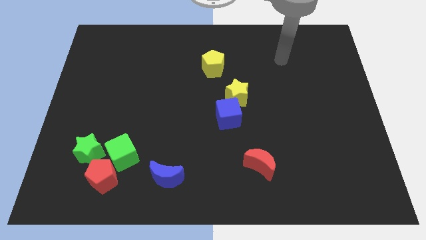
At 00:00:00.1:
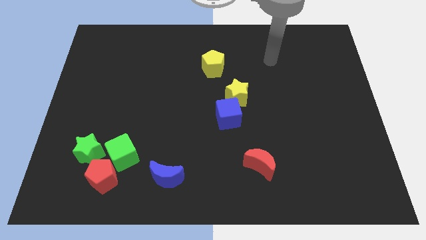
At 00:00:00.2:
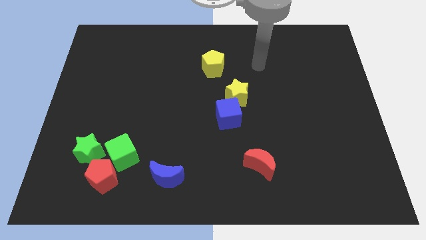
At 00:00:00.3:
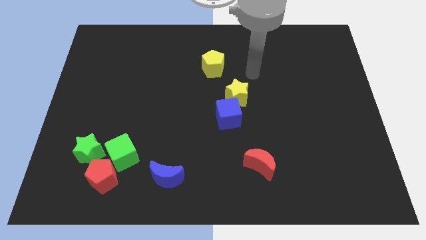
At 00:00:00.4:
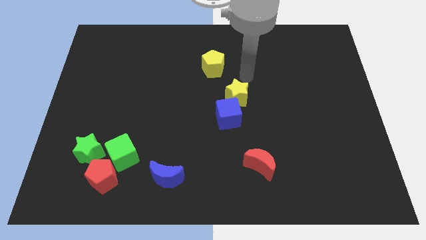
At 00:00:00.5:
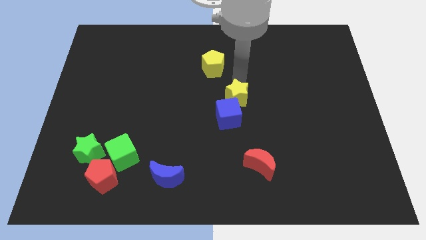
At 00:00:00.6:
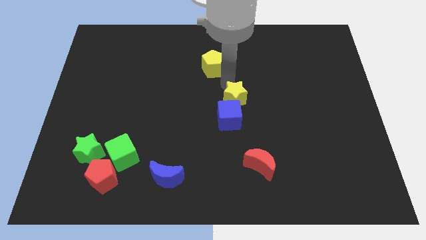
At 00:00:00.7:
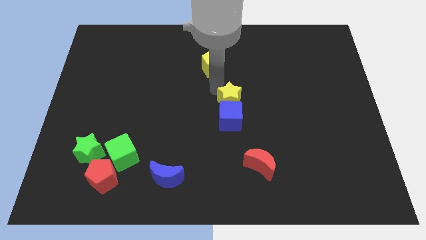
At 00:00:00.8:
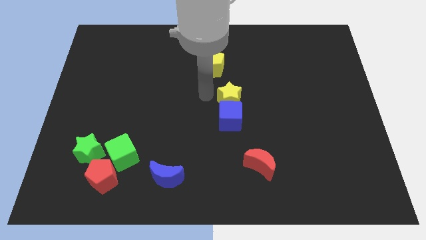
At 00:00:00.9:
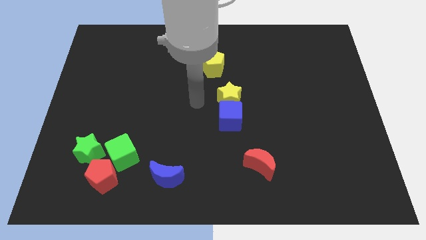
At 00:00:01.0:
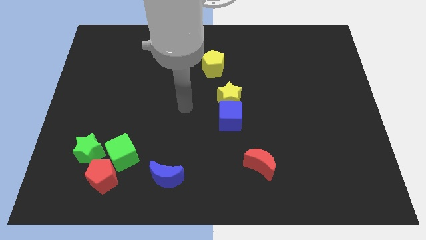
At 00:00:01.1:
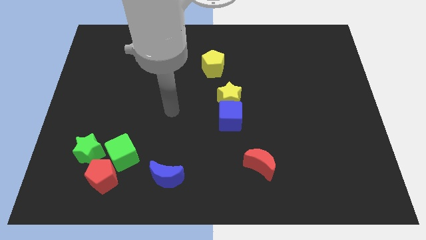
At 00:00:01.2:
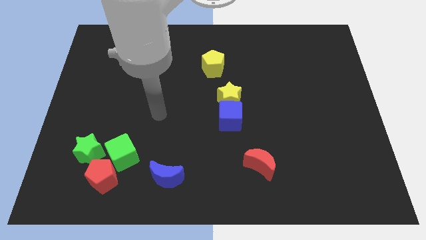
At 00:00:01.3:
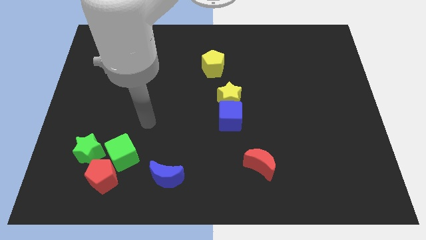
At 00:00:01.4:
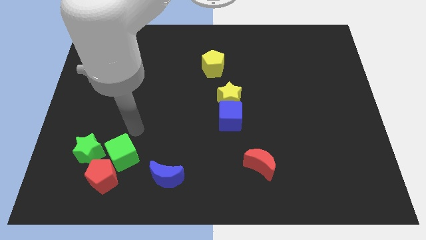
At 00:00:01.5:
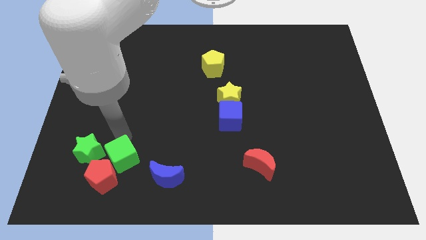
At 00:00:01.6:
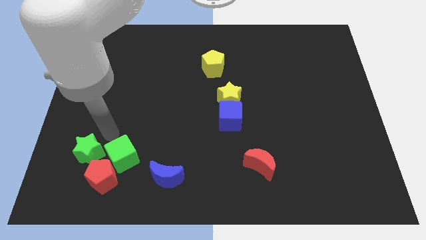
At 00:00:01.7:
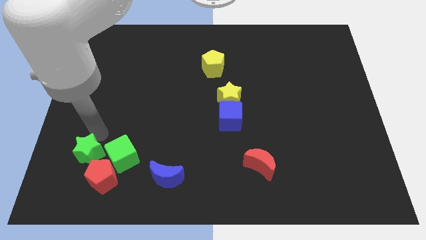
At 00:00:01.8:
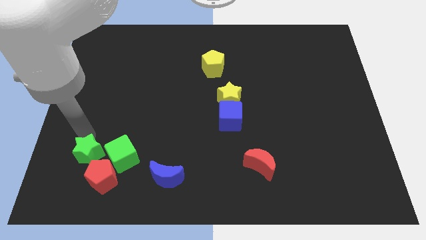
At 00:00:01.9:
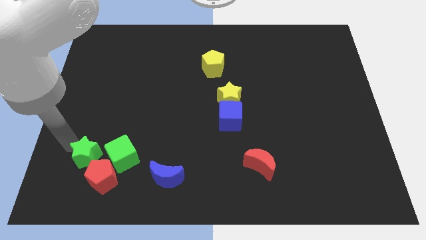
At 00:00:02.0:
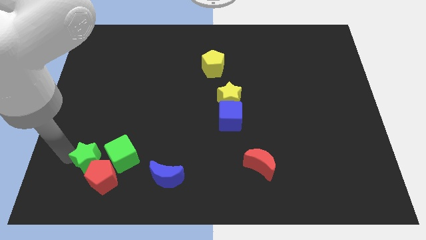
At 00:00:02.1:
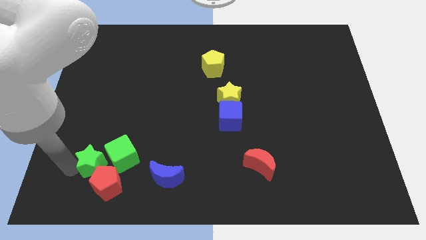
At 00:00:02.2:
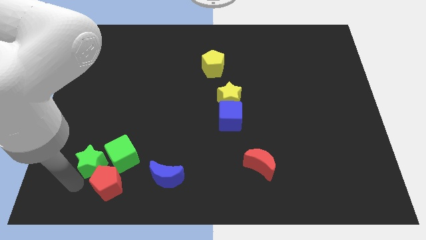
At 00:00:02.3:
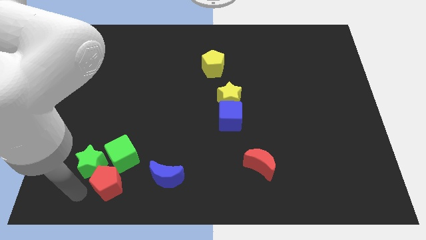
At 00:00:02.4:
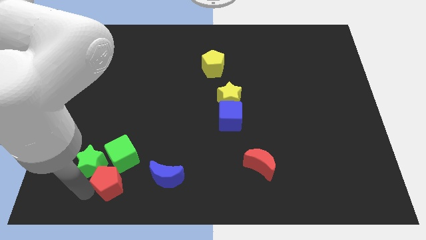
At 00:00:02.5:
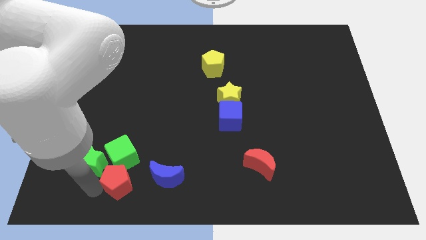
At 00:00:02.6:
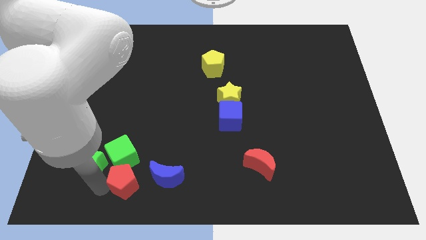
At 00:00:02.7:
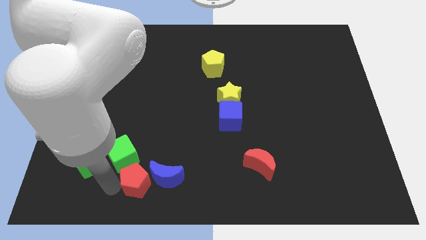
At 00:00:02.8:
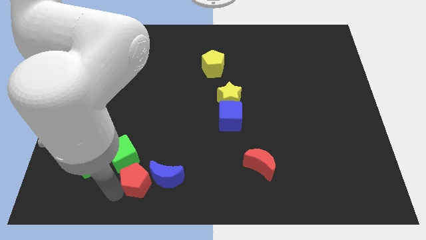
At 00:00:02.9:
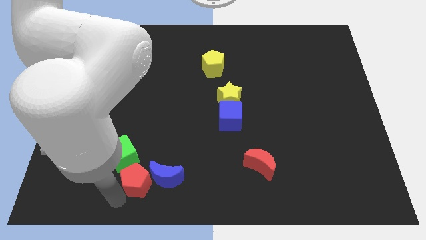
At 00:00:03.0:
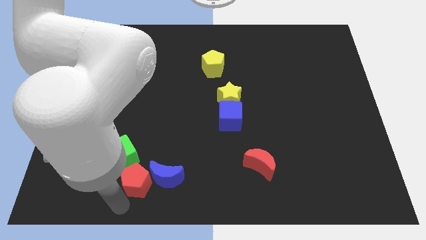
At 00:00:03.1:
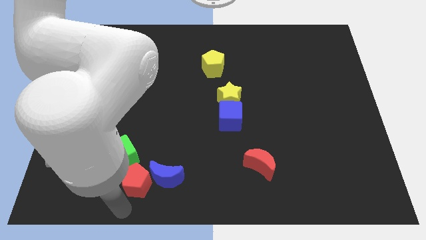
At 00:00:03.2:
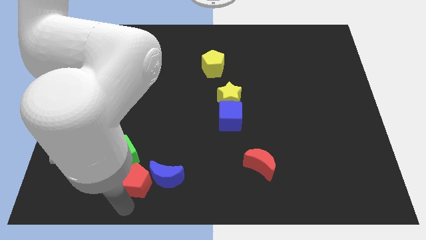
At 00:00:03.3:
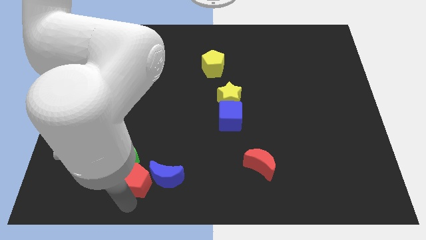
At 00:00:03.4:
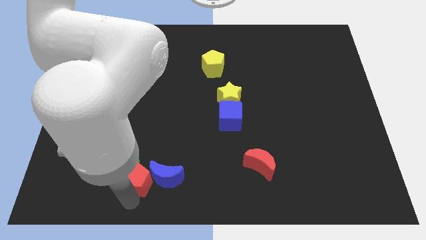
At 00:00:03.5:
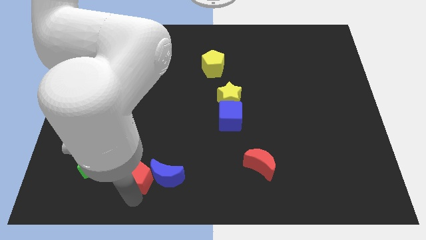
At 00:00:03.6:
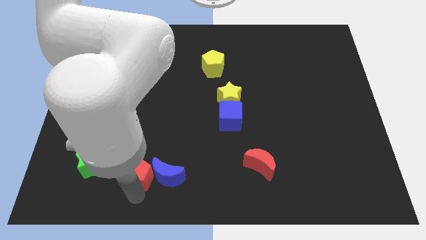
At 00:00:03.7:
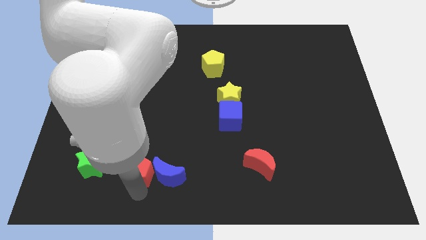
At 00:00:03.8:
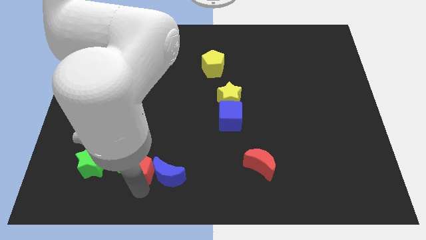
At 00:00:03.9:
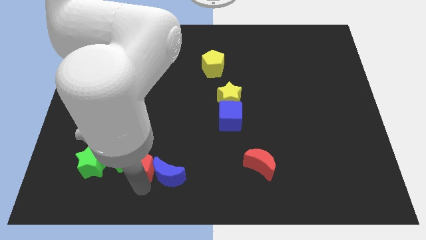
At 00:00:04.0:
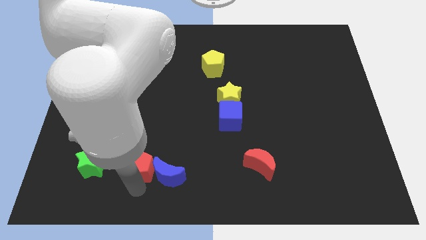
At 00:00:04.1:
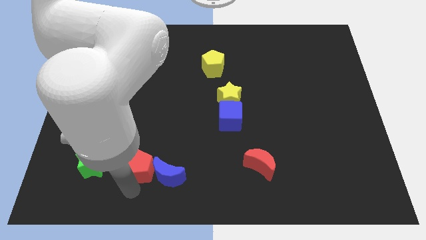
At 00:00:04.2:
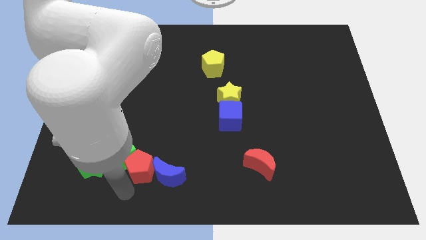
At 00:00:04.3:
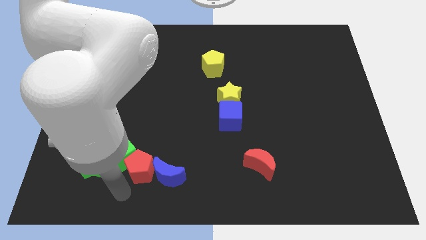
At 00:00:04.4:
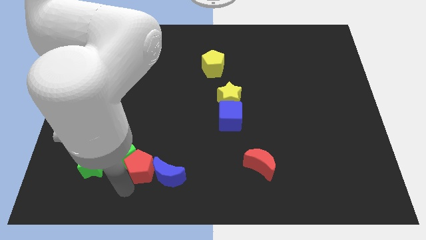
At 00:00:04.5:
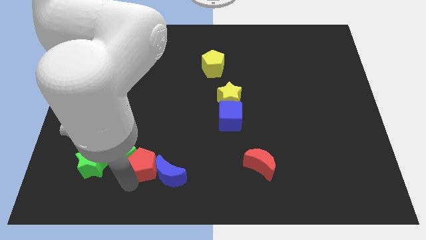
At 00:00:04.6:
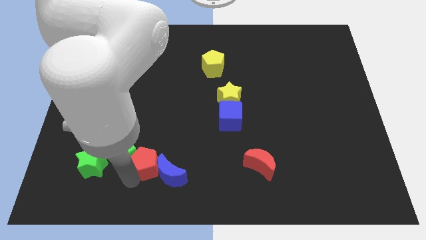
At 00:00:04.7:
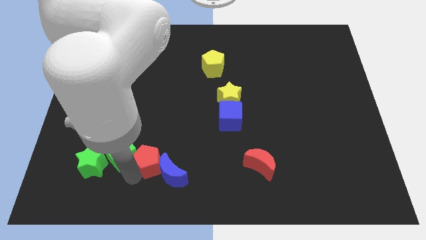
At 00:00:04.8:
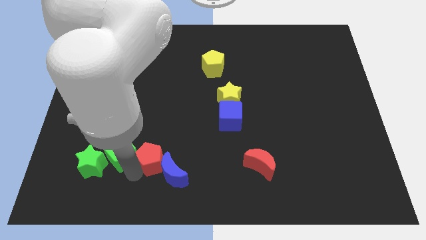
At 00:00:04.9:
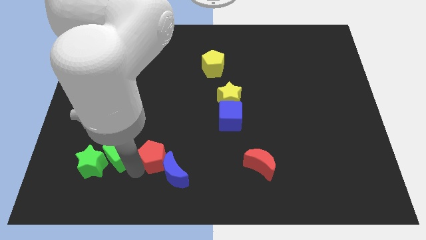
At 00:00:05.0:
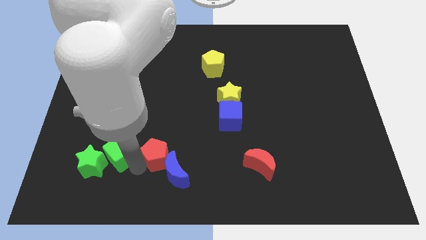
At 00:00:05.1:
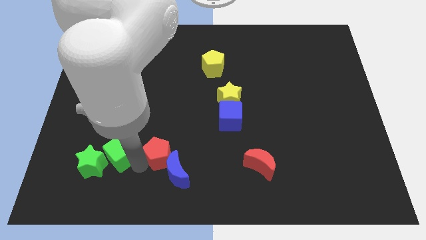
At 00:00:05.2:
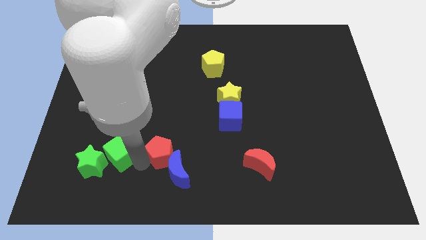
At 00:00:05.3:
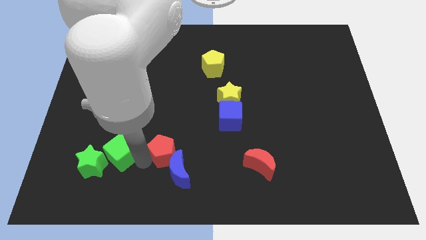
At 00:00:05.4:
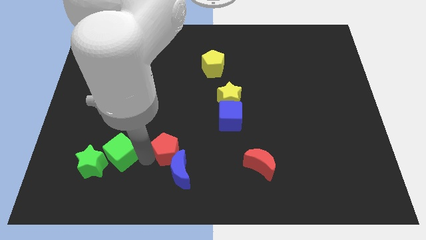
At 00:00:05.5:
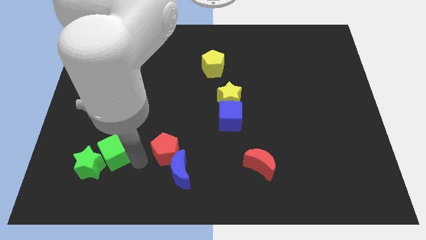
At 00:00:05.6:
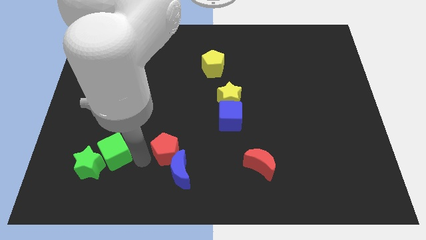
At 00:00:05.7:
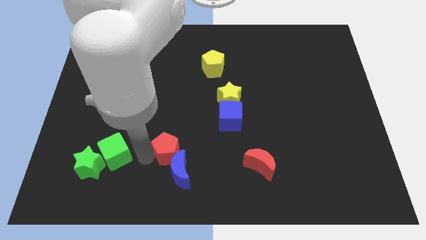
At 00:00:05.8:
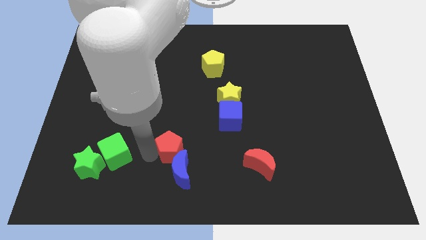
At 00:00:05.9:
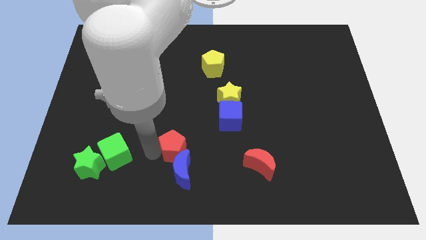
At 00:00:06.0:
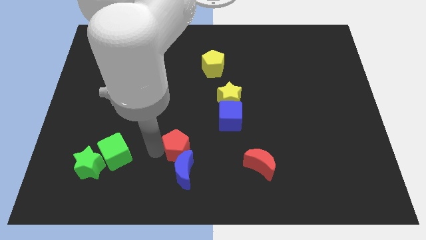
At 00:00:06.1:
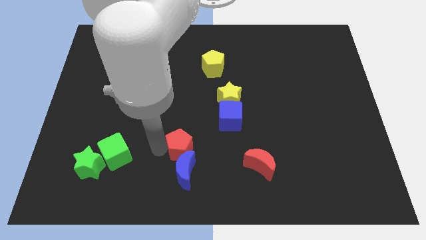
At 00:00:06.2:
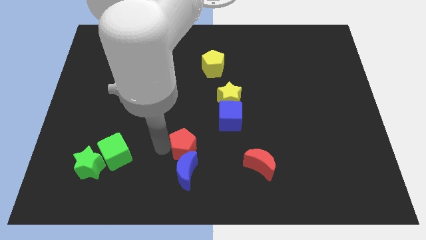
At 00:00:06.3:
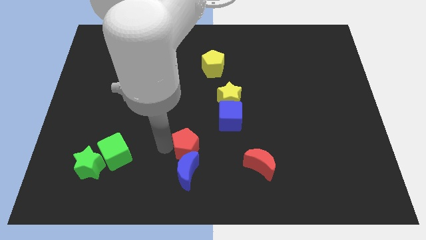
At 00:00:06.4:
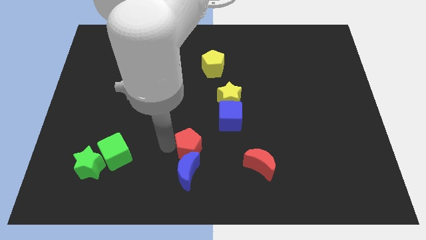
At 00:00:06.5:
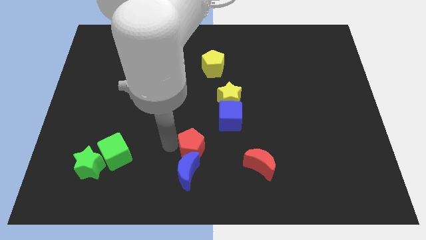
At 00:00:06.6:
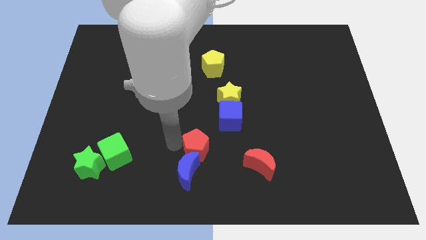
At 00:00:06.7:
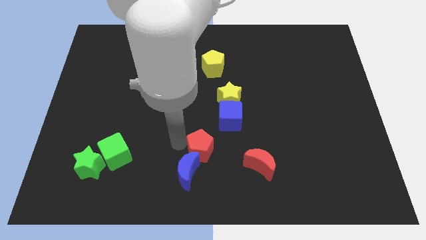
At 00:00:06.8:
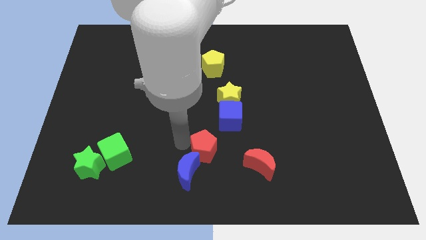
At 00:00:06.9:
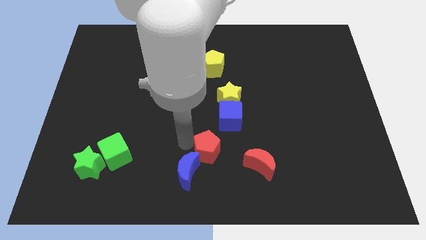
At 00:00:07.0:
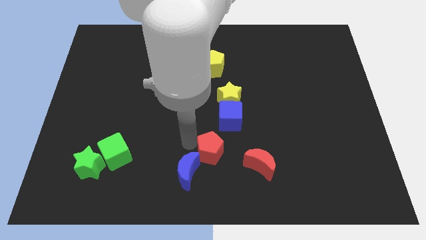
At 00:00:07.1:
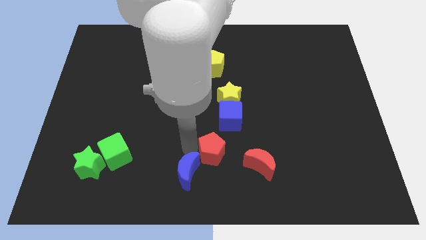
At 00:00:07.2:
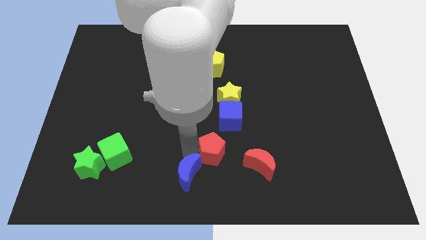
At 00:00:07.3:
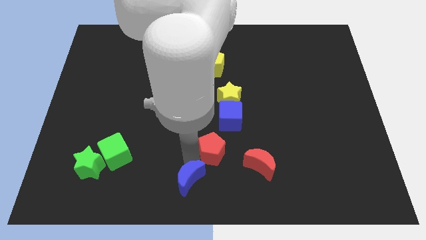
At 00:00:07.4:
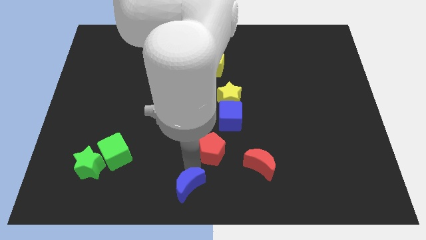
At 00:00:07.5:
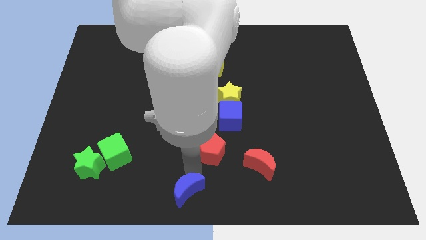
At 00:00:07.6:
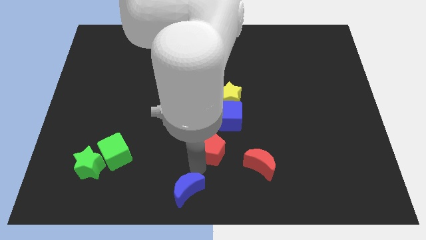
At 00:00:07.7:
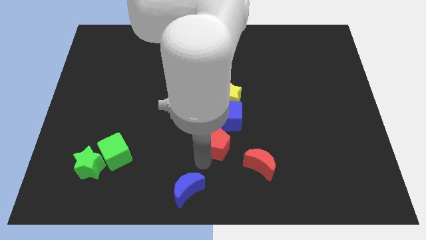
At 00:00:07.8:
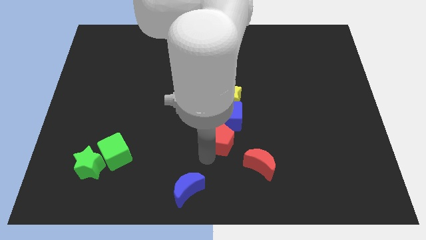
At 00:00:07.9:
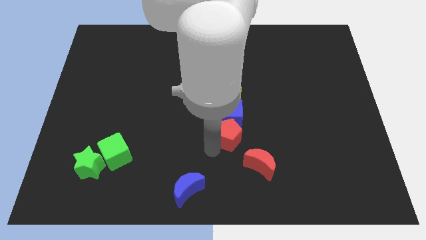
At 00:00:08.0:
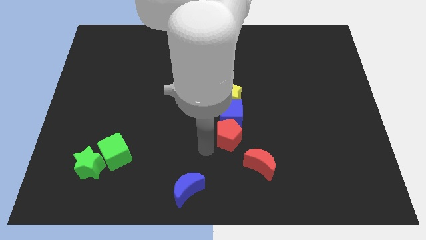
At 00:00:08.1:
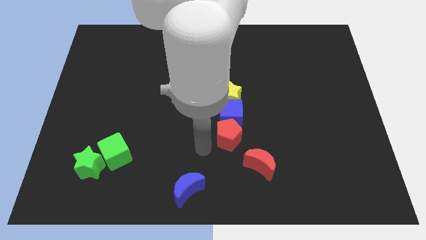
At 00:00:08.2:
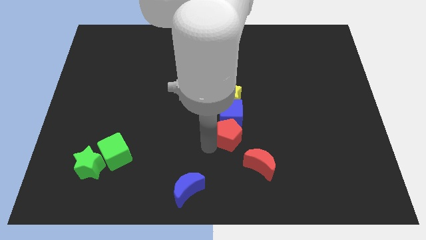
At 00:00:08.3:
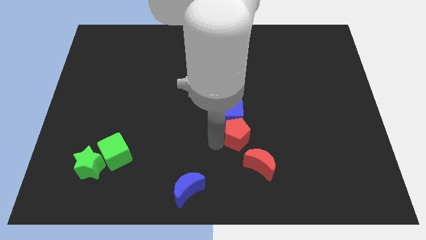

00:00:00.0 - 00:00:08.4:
slide the red pentagon to the top of the red moon
